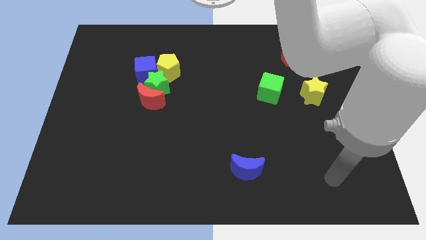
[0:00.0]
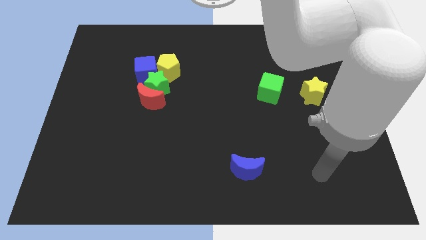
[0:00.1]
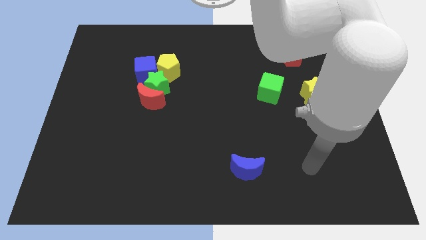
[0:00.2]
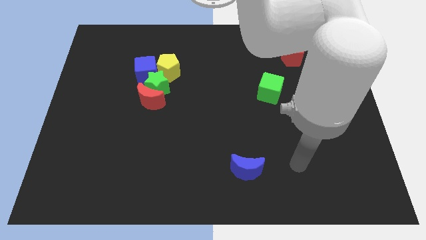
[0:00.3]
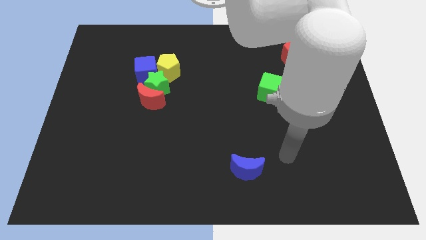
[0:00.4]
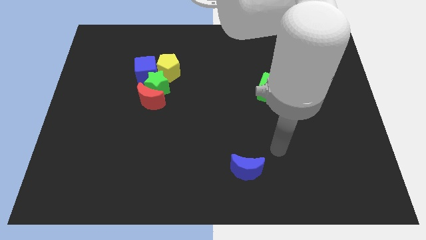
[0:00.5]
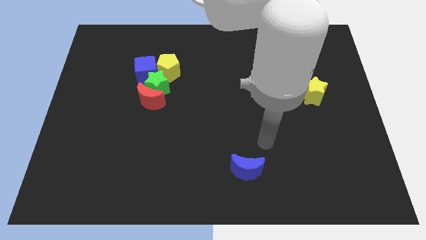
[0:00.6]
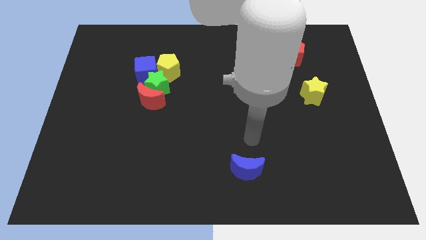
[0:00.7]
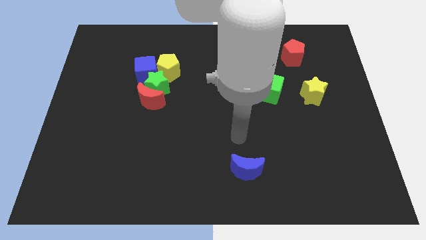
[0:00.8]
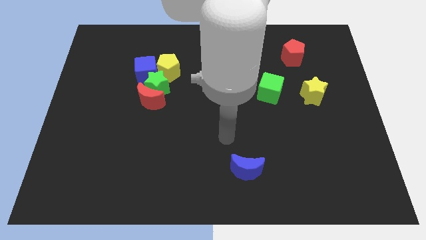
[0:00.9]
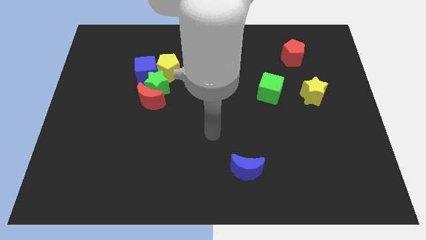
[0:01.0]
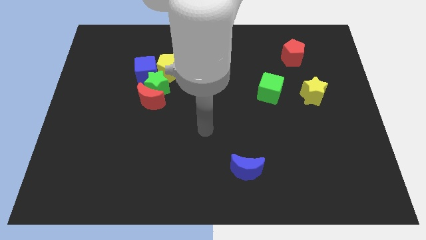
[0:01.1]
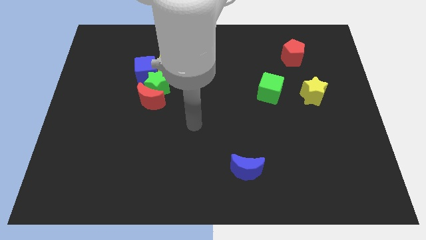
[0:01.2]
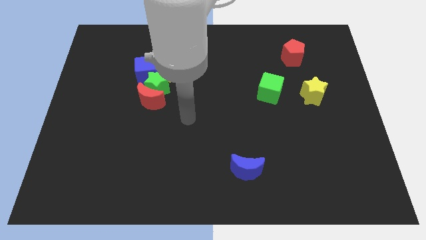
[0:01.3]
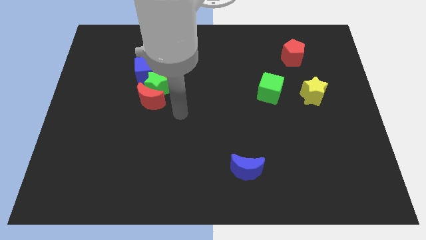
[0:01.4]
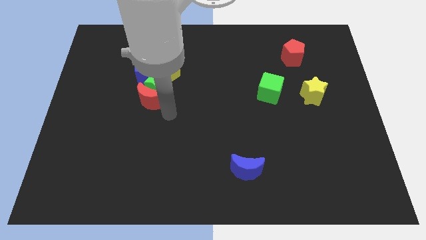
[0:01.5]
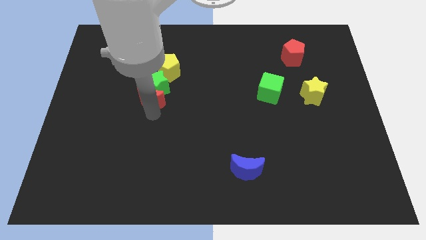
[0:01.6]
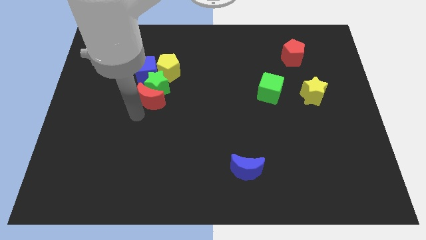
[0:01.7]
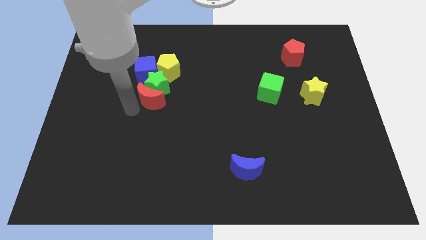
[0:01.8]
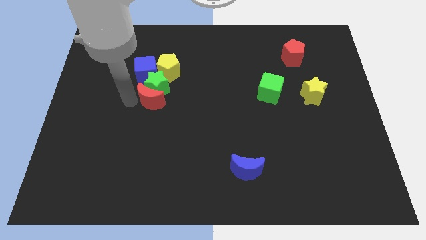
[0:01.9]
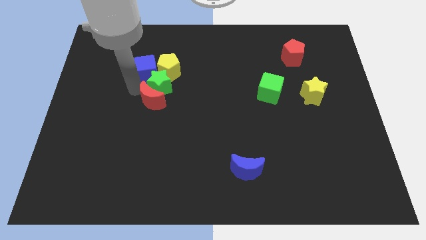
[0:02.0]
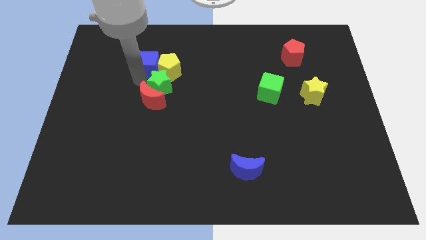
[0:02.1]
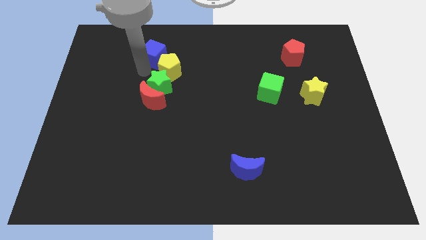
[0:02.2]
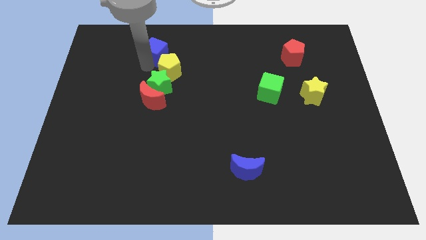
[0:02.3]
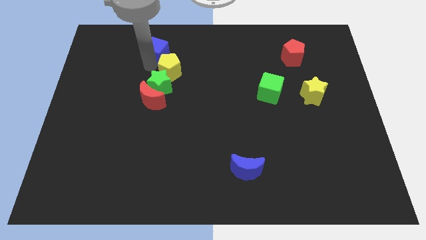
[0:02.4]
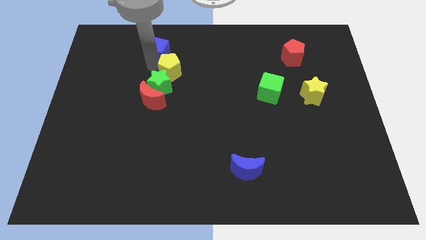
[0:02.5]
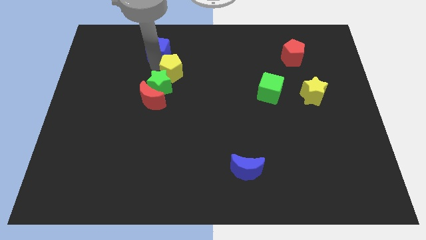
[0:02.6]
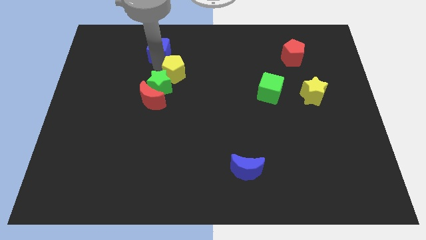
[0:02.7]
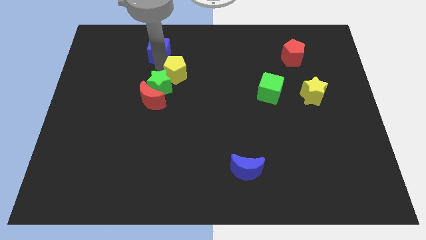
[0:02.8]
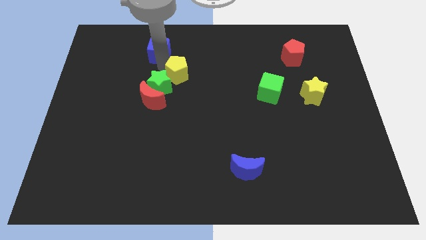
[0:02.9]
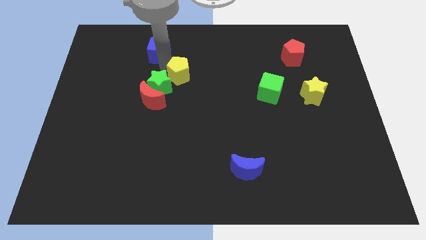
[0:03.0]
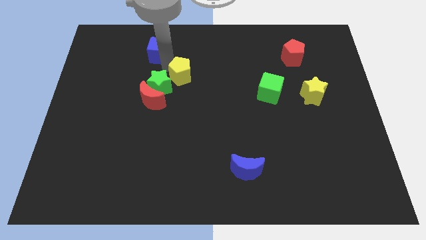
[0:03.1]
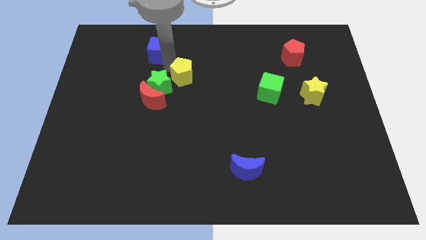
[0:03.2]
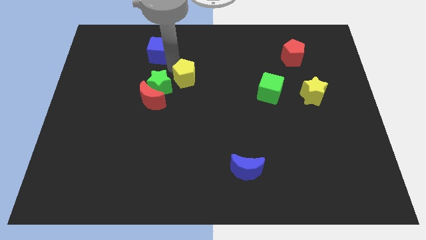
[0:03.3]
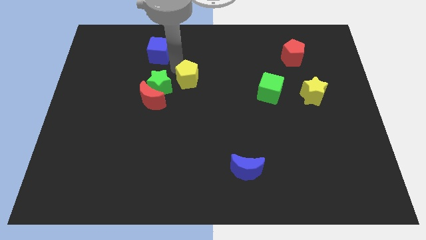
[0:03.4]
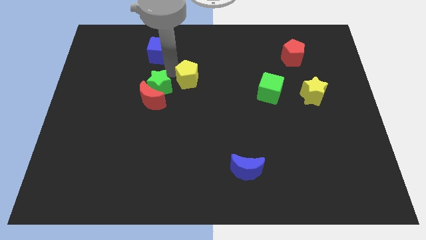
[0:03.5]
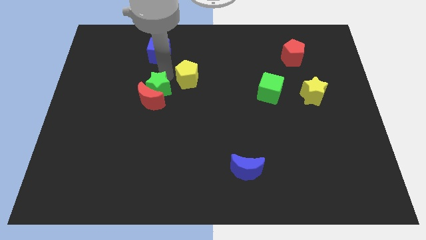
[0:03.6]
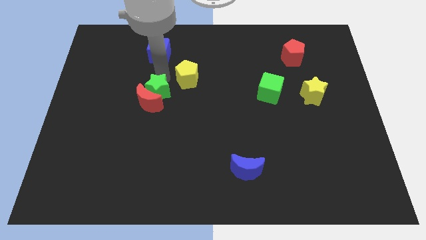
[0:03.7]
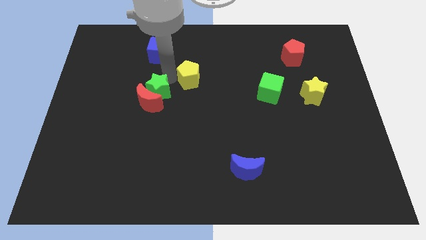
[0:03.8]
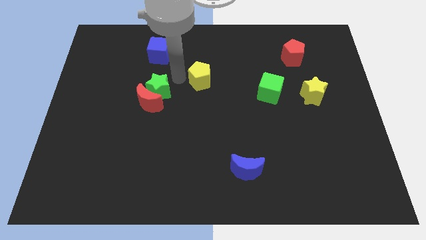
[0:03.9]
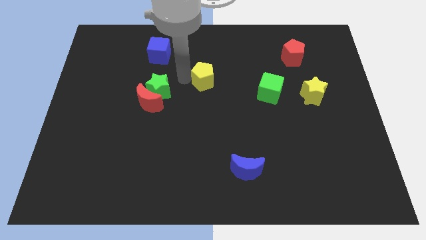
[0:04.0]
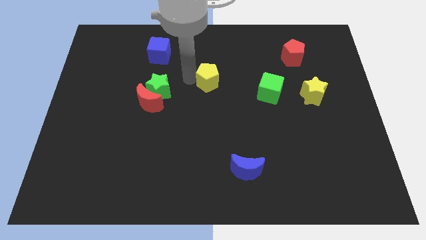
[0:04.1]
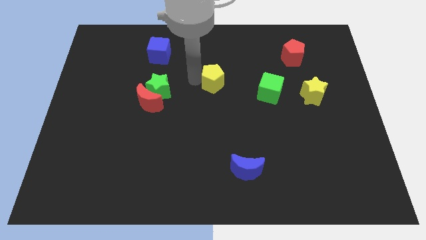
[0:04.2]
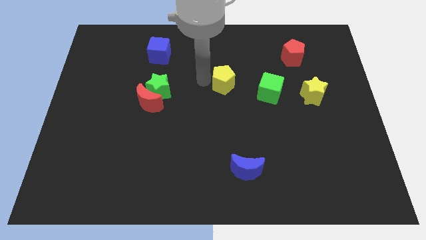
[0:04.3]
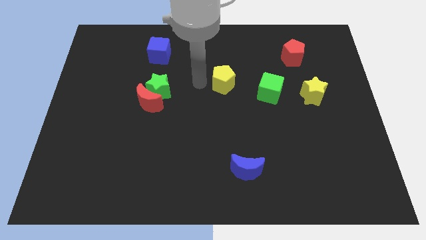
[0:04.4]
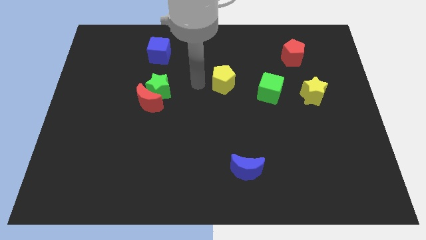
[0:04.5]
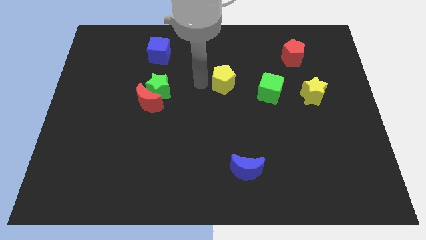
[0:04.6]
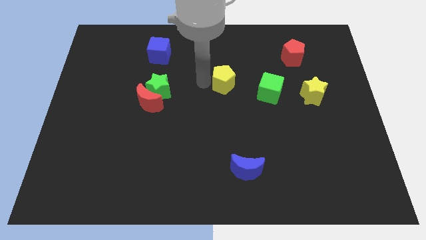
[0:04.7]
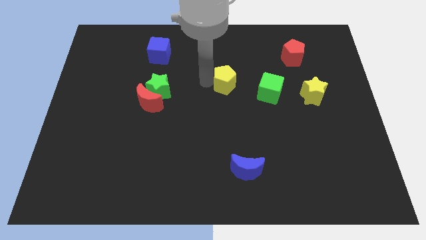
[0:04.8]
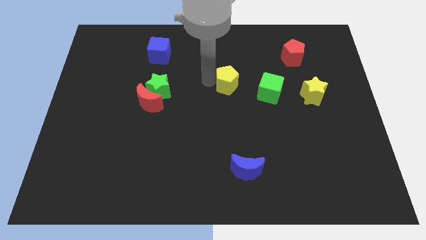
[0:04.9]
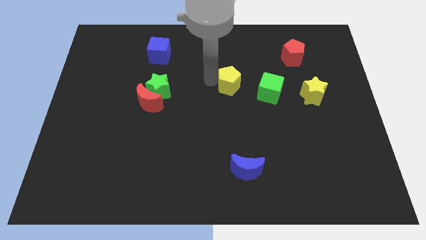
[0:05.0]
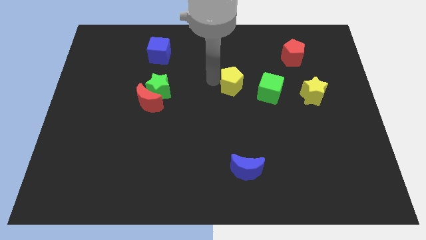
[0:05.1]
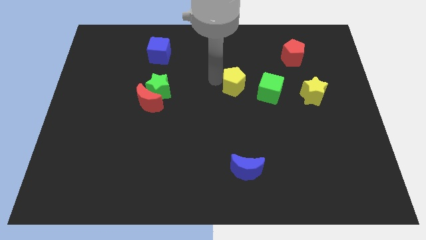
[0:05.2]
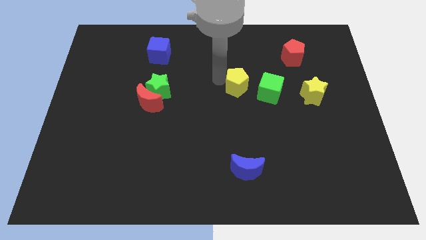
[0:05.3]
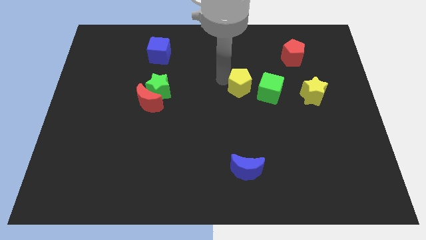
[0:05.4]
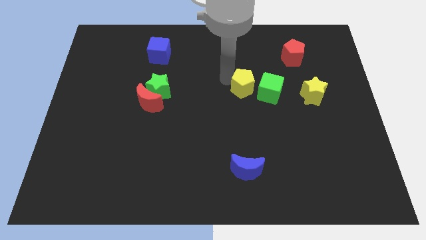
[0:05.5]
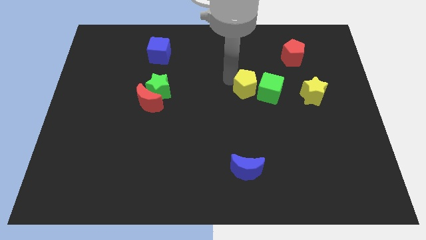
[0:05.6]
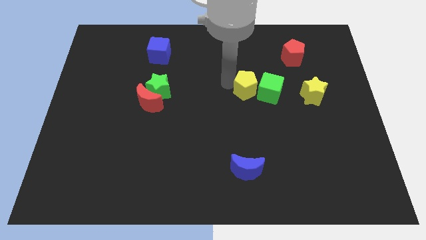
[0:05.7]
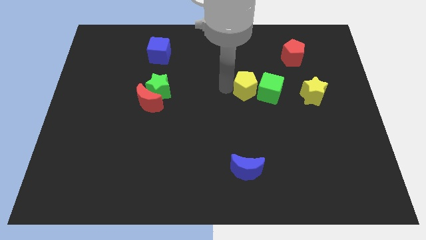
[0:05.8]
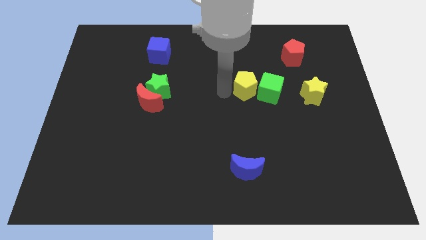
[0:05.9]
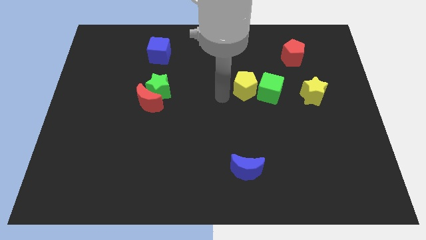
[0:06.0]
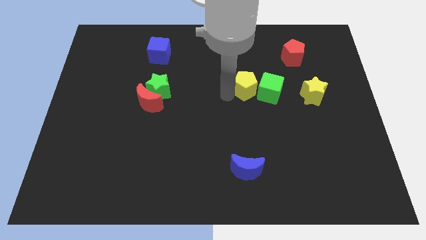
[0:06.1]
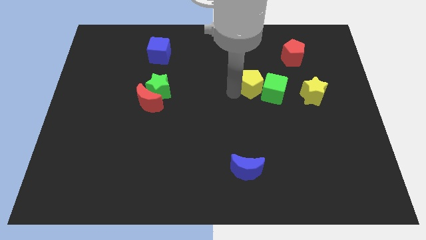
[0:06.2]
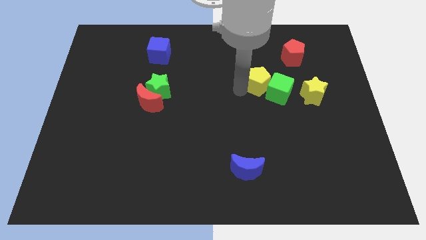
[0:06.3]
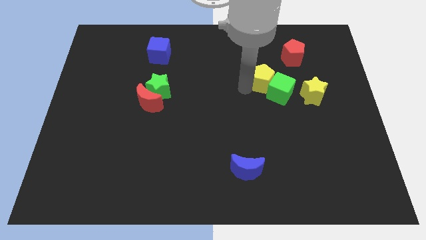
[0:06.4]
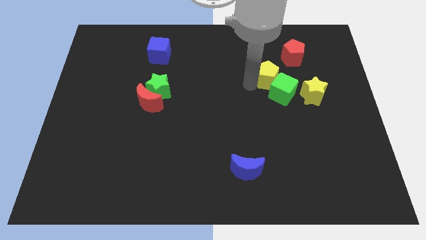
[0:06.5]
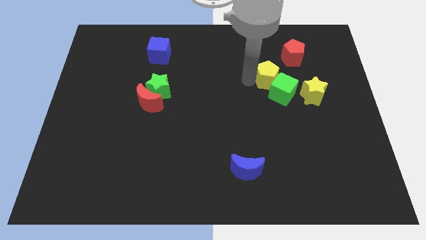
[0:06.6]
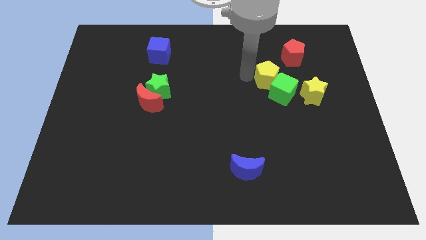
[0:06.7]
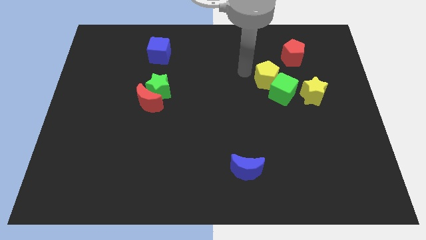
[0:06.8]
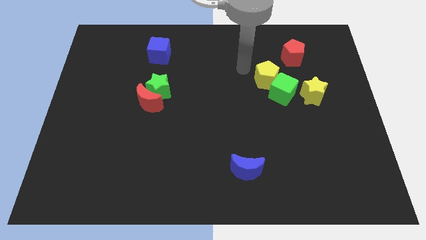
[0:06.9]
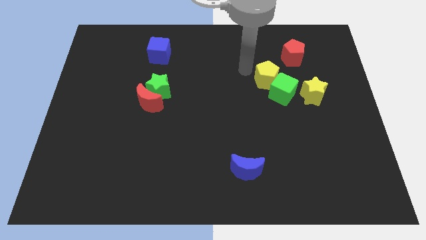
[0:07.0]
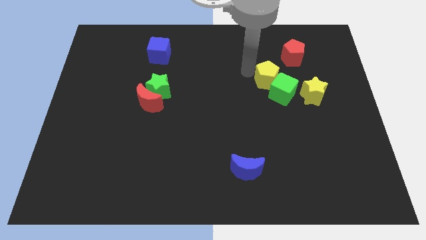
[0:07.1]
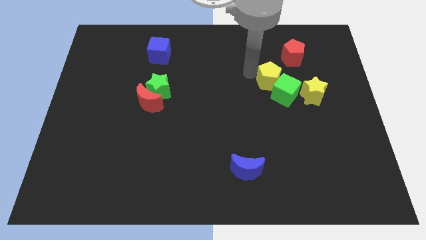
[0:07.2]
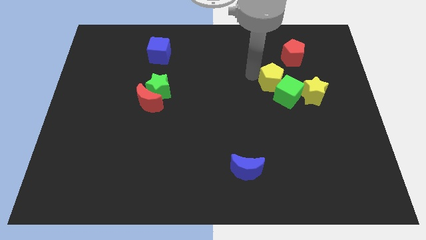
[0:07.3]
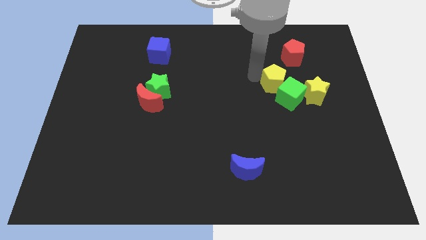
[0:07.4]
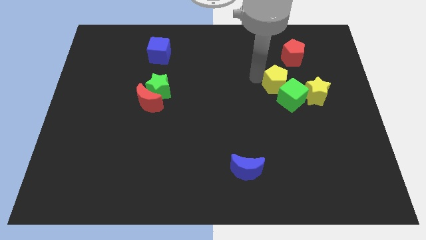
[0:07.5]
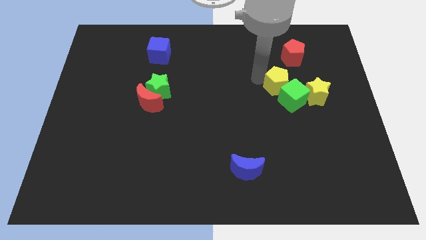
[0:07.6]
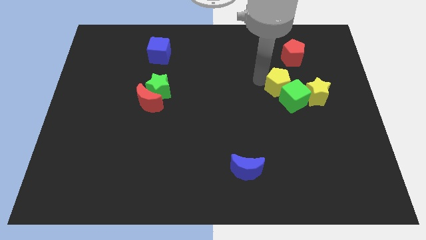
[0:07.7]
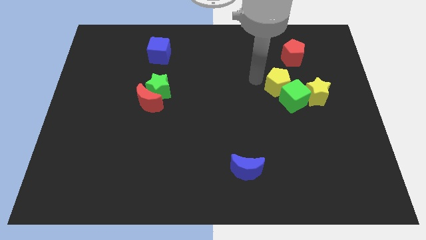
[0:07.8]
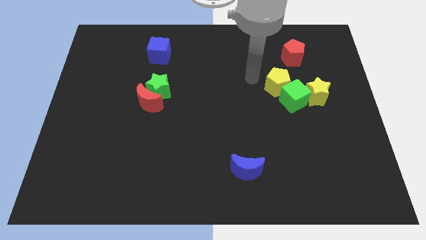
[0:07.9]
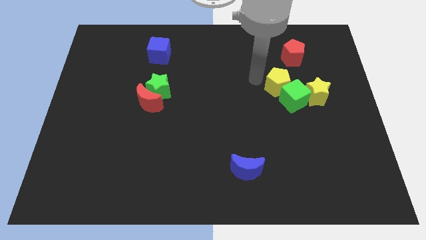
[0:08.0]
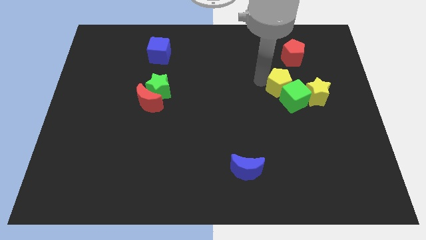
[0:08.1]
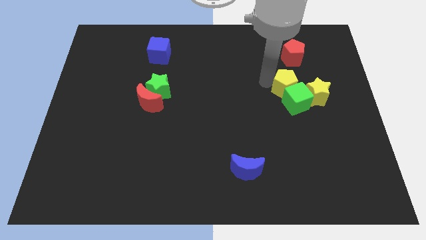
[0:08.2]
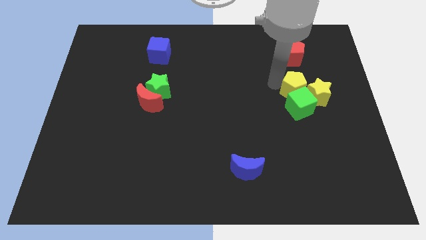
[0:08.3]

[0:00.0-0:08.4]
put the yellow pentagon towards the yellow star
